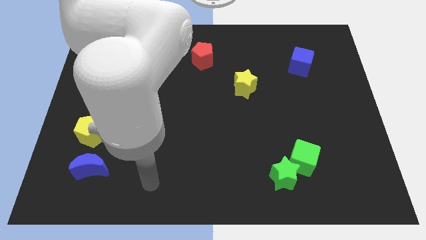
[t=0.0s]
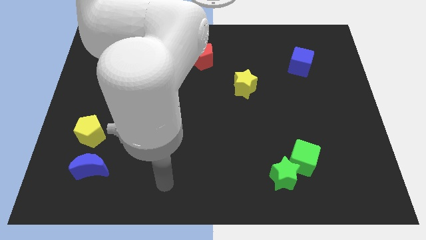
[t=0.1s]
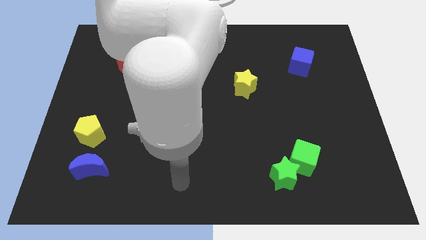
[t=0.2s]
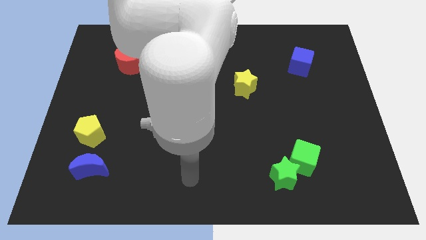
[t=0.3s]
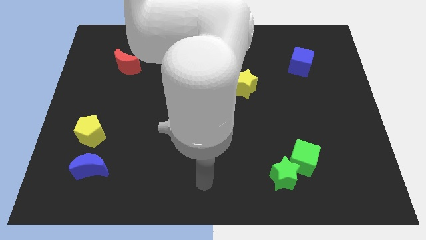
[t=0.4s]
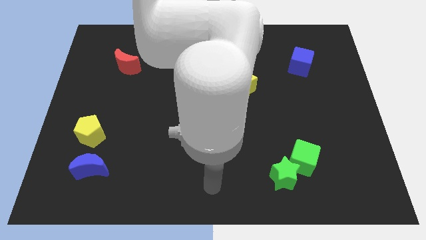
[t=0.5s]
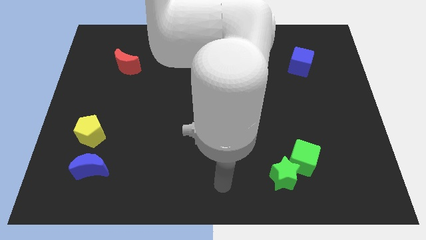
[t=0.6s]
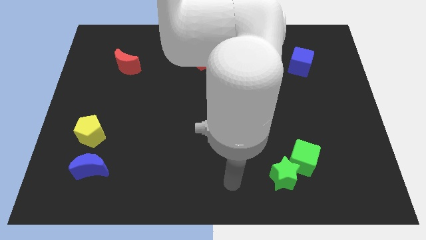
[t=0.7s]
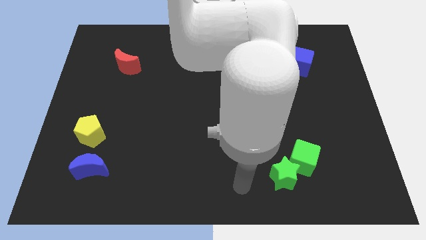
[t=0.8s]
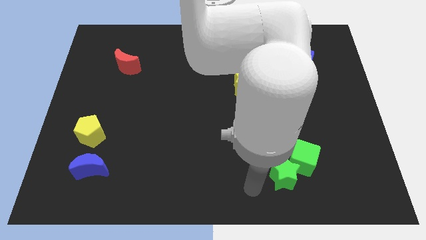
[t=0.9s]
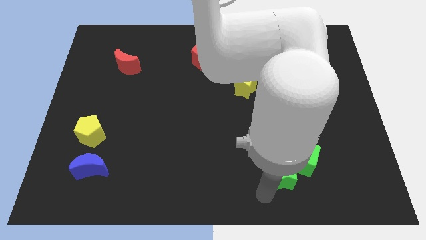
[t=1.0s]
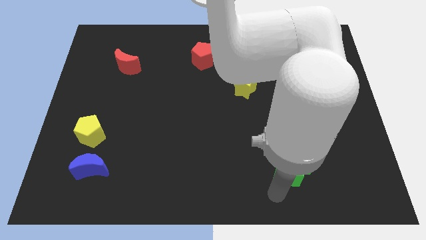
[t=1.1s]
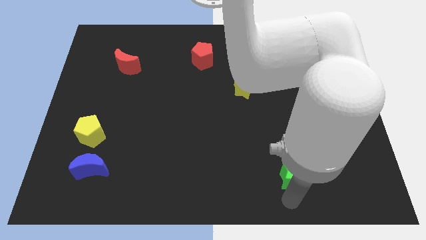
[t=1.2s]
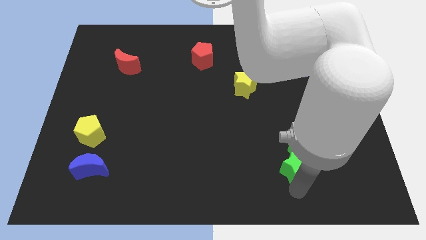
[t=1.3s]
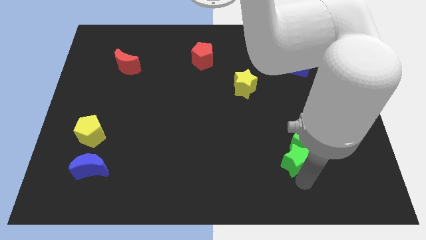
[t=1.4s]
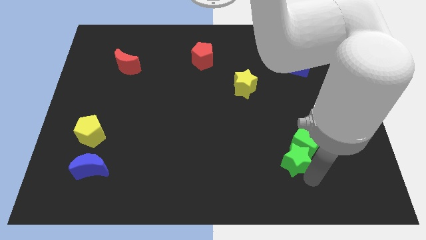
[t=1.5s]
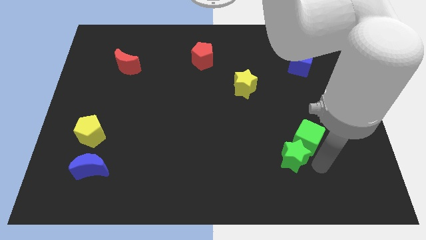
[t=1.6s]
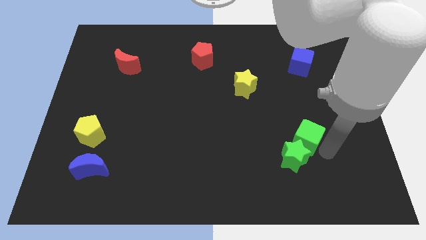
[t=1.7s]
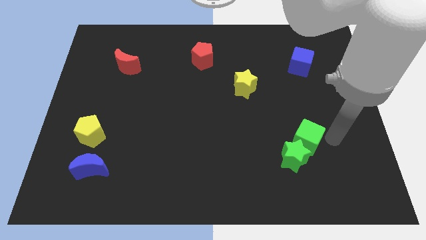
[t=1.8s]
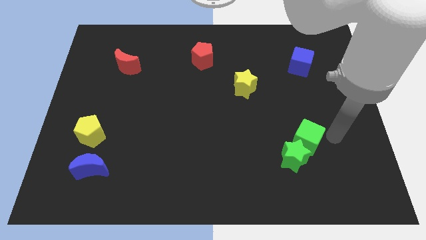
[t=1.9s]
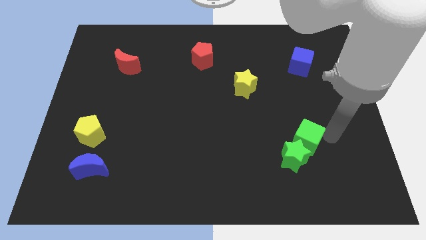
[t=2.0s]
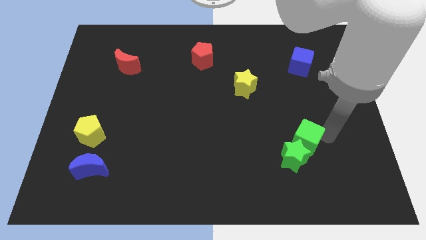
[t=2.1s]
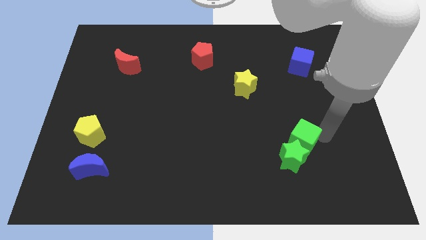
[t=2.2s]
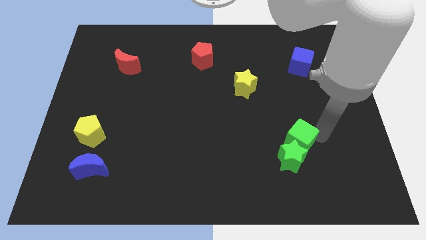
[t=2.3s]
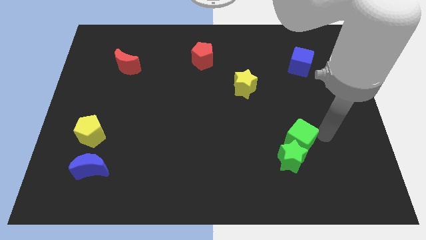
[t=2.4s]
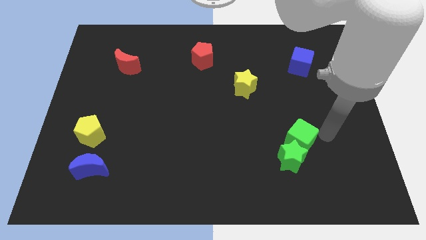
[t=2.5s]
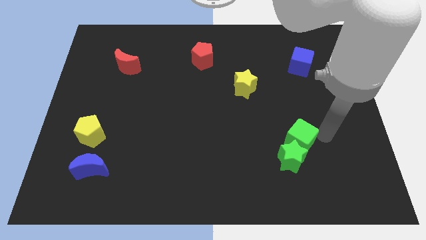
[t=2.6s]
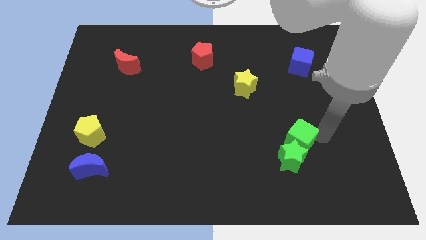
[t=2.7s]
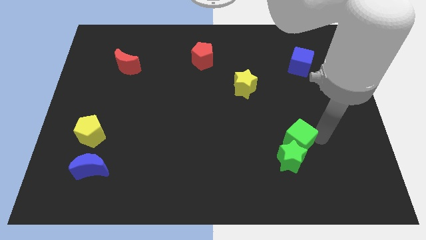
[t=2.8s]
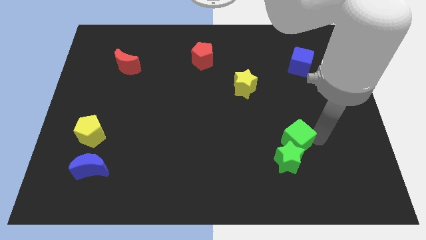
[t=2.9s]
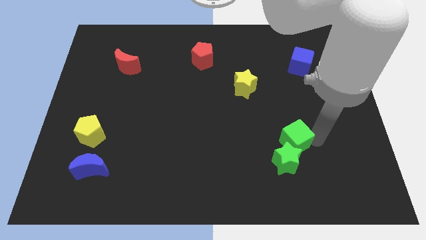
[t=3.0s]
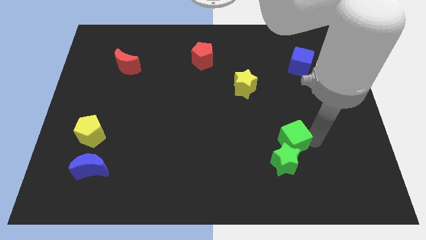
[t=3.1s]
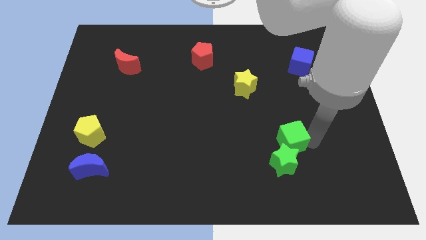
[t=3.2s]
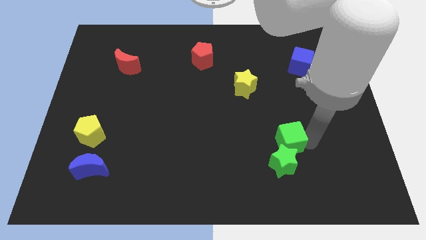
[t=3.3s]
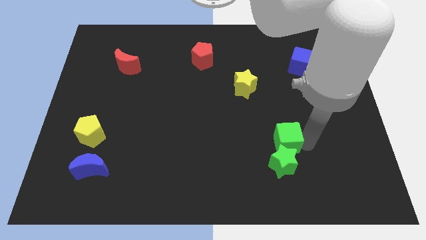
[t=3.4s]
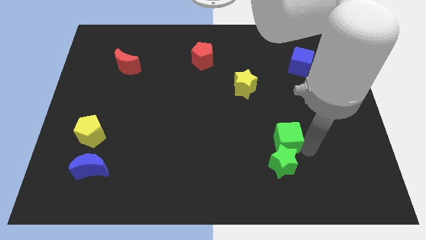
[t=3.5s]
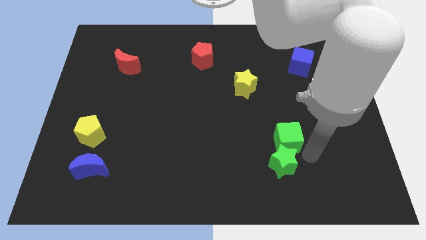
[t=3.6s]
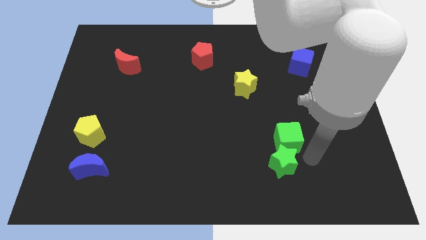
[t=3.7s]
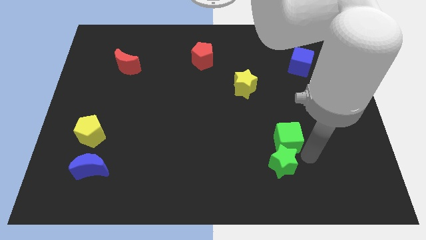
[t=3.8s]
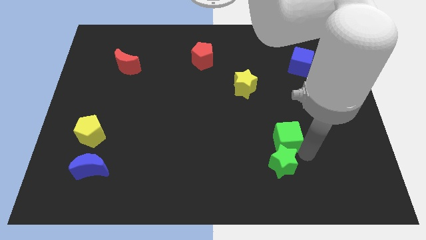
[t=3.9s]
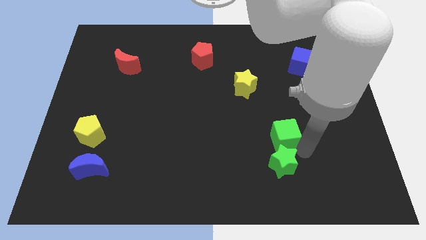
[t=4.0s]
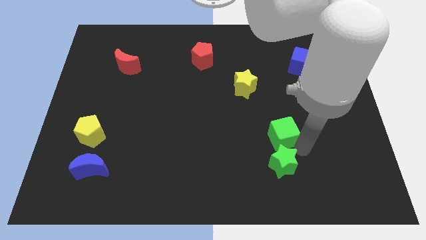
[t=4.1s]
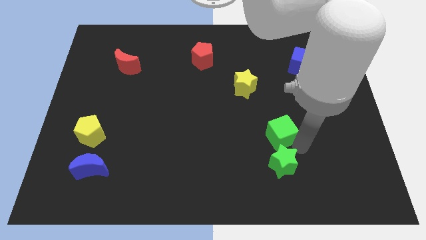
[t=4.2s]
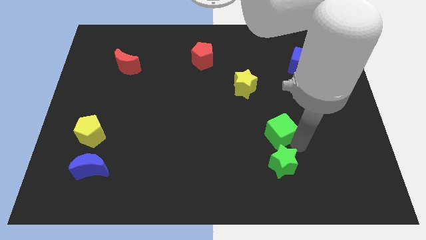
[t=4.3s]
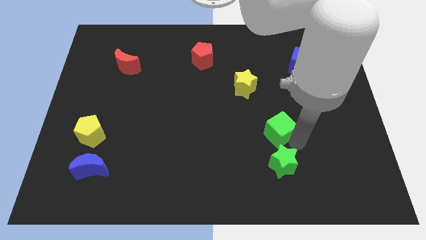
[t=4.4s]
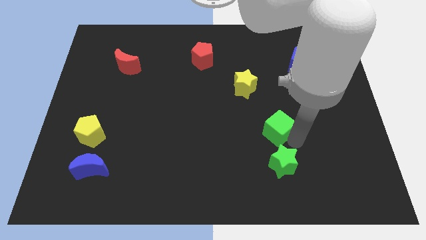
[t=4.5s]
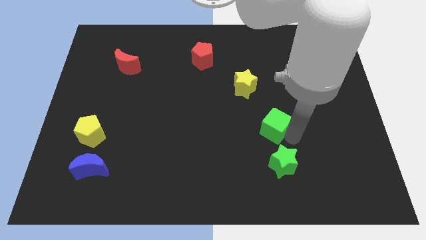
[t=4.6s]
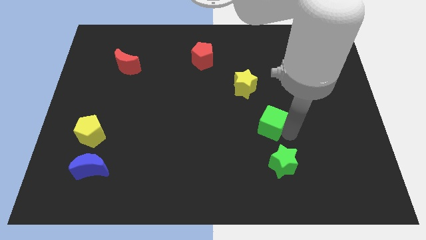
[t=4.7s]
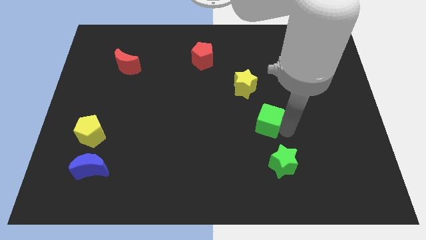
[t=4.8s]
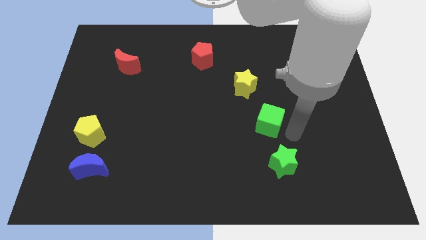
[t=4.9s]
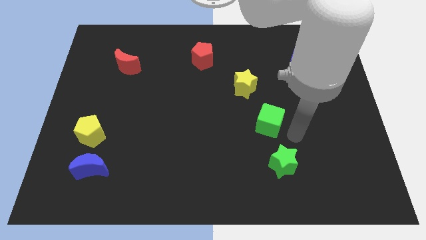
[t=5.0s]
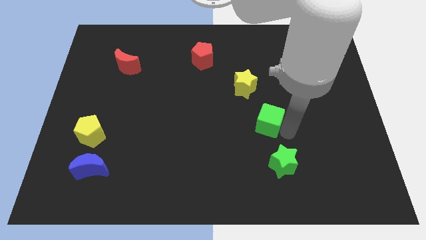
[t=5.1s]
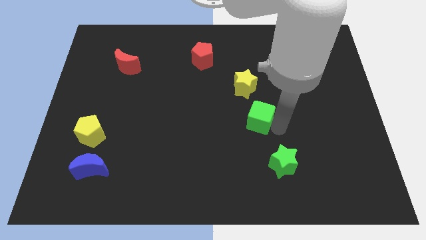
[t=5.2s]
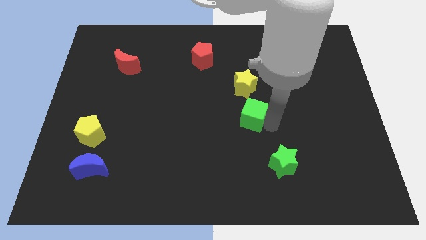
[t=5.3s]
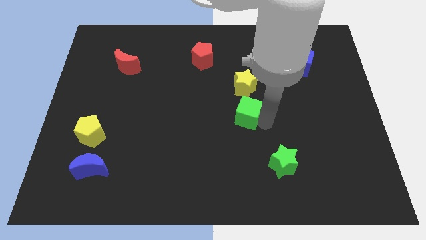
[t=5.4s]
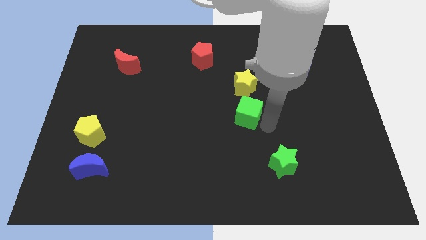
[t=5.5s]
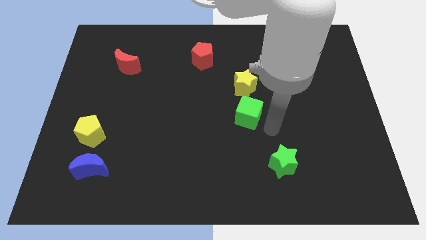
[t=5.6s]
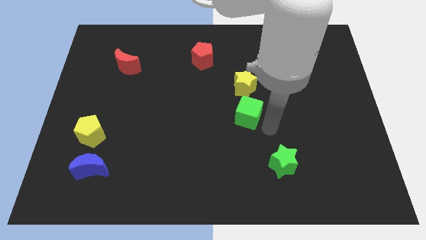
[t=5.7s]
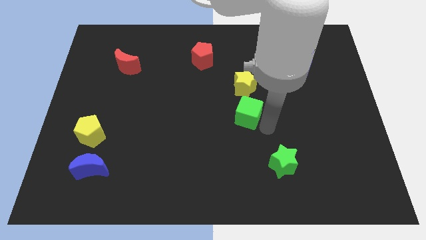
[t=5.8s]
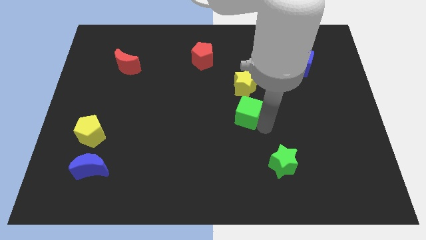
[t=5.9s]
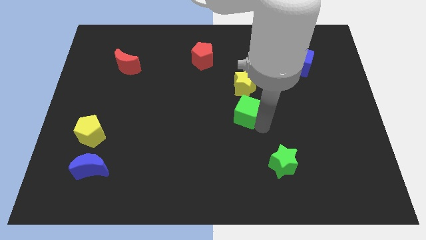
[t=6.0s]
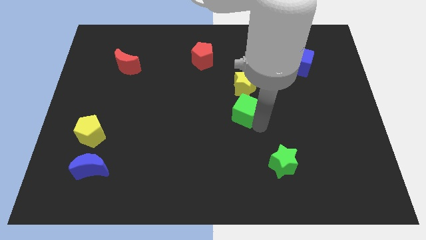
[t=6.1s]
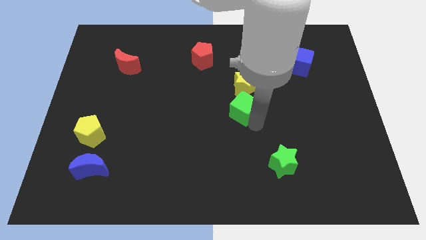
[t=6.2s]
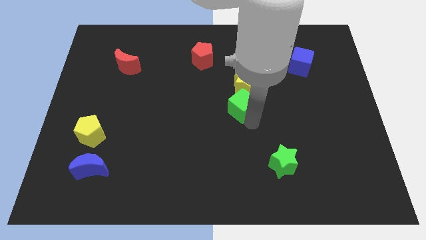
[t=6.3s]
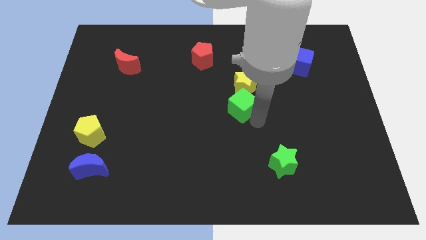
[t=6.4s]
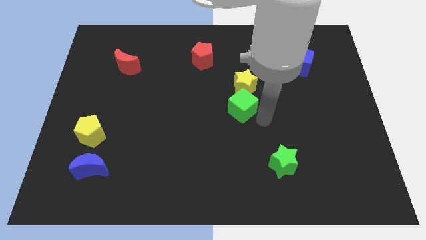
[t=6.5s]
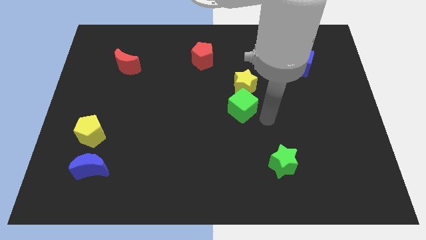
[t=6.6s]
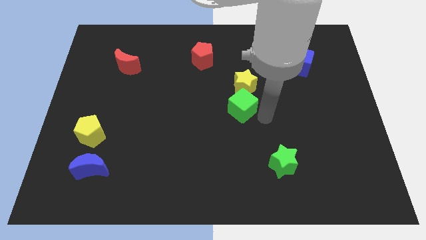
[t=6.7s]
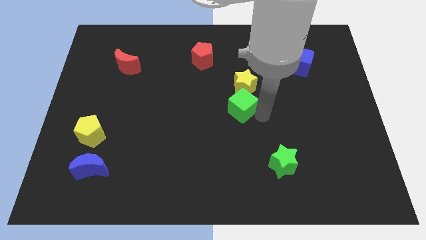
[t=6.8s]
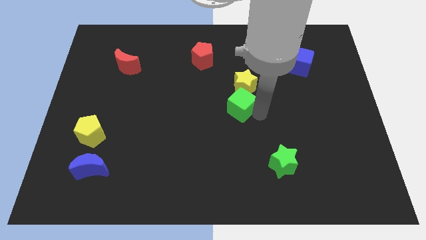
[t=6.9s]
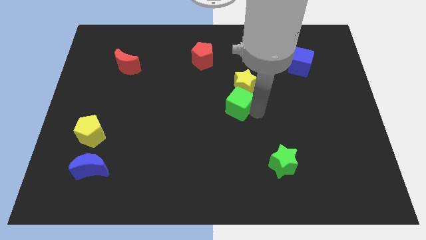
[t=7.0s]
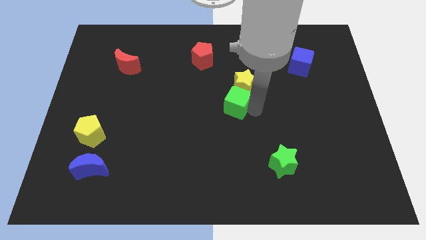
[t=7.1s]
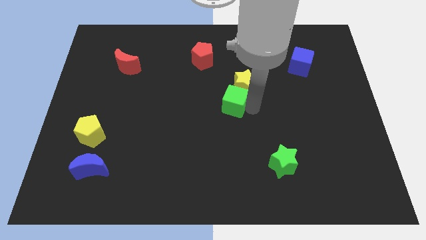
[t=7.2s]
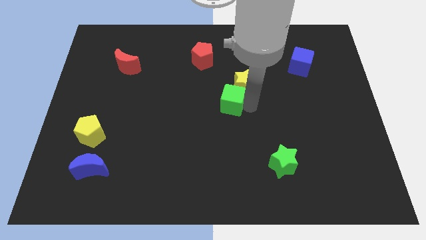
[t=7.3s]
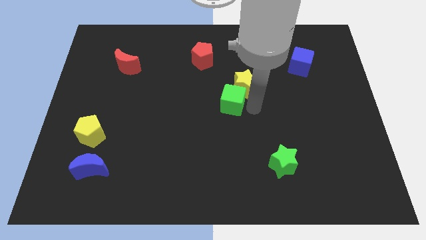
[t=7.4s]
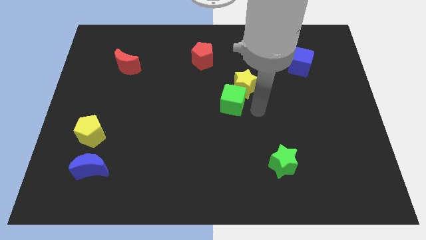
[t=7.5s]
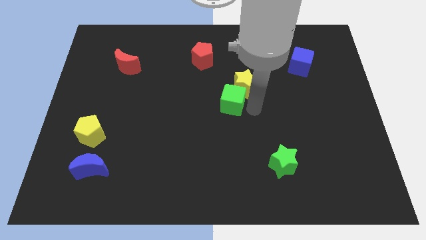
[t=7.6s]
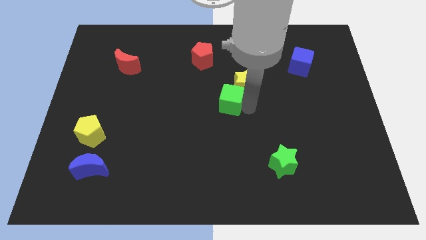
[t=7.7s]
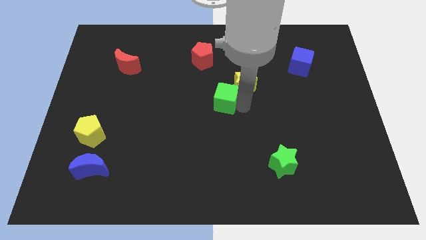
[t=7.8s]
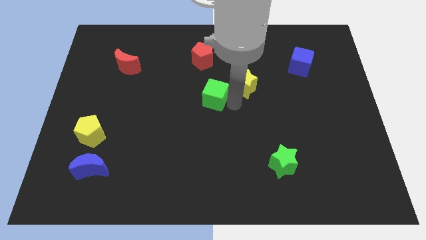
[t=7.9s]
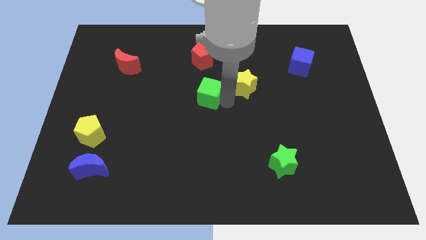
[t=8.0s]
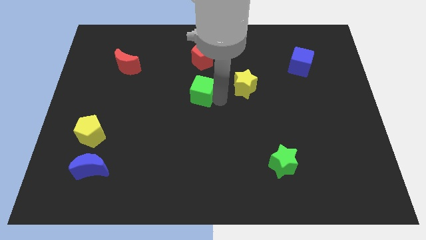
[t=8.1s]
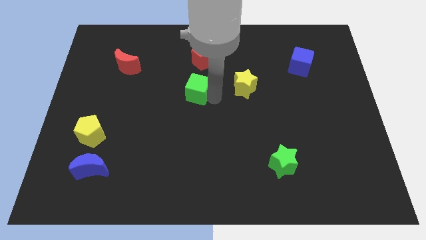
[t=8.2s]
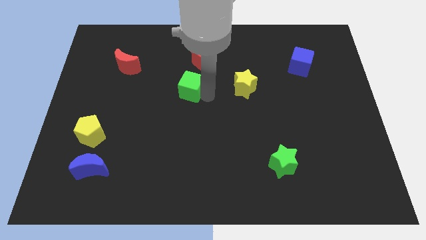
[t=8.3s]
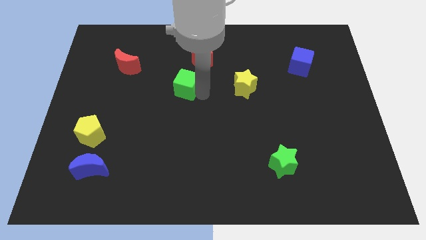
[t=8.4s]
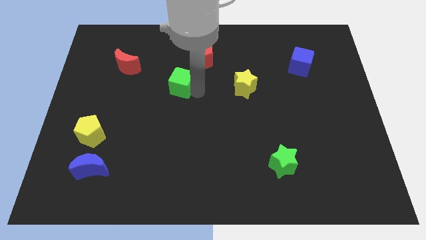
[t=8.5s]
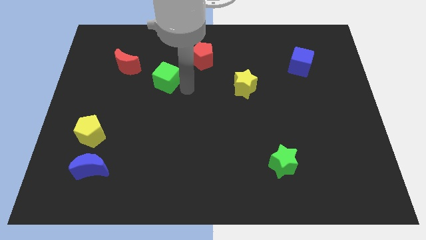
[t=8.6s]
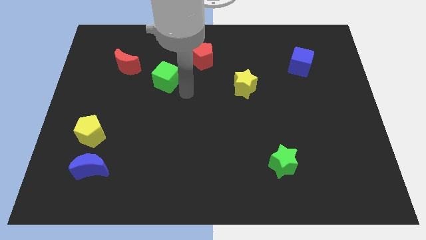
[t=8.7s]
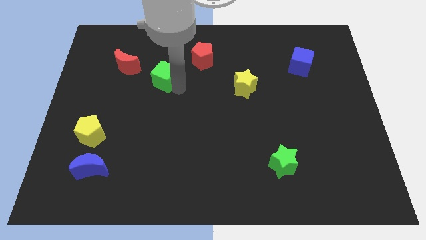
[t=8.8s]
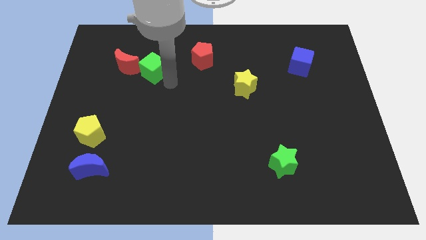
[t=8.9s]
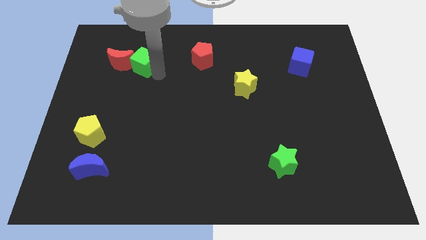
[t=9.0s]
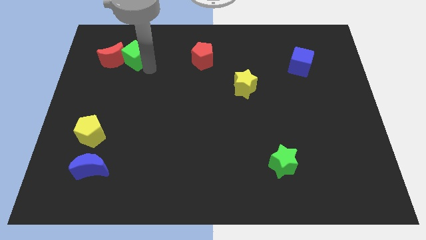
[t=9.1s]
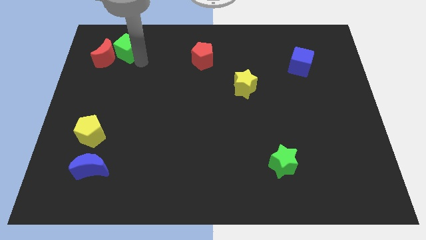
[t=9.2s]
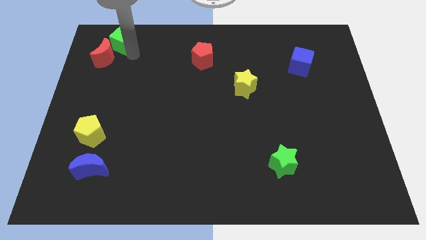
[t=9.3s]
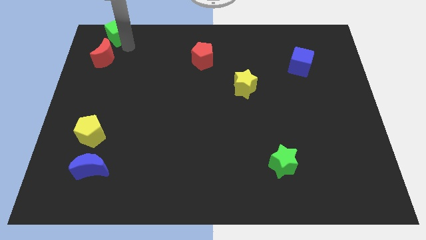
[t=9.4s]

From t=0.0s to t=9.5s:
put the green cube to the top left
